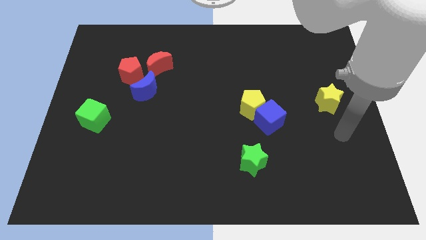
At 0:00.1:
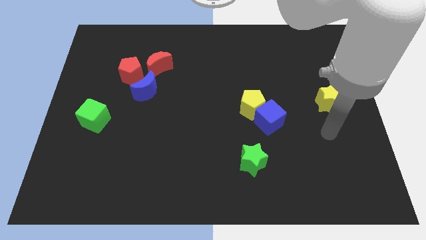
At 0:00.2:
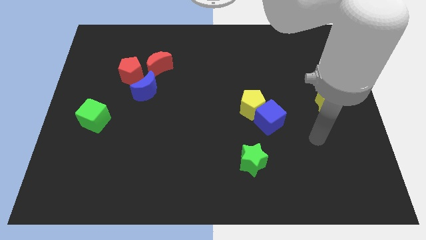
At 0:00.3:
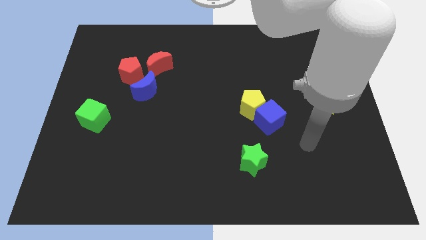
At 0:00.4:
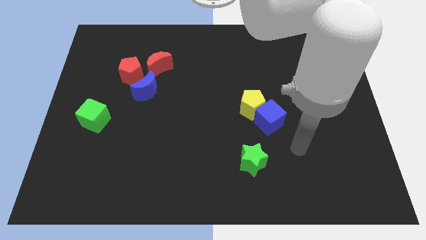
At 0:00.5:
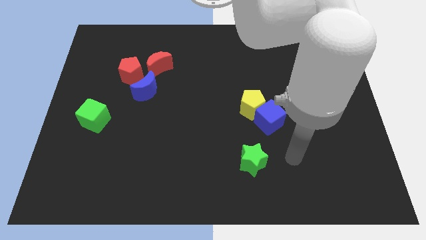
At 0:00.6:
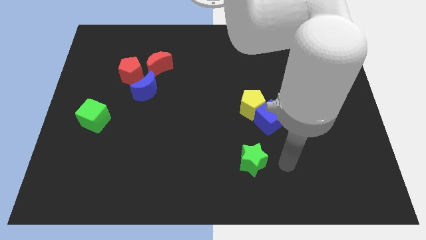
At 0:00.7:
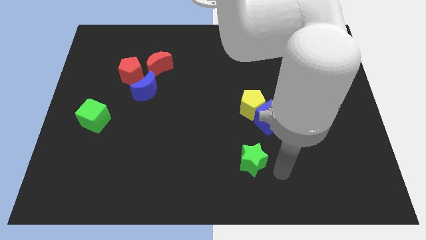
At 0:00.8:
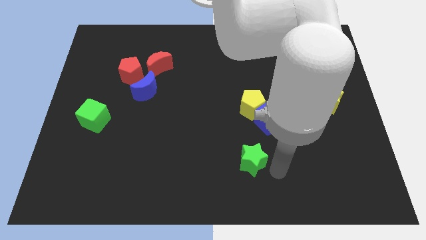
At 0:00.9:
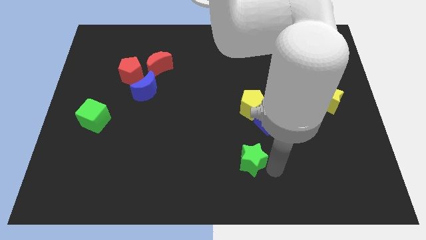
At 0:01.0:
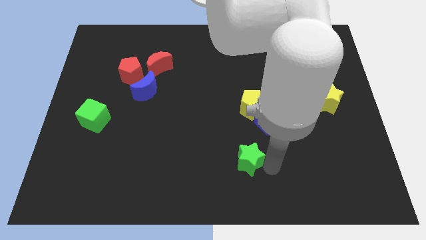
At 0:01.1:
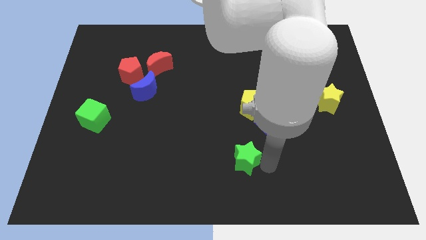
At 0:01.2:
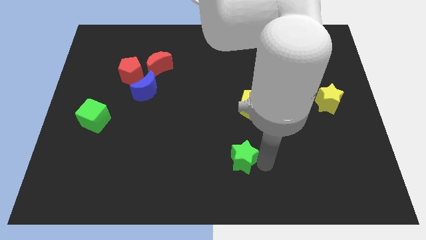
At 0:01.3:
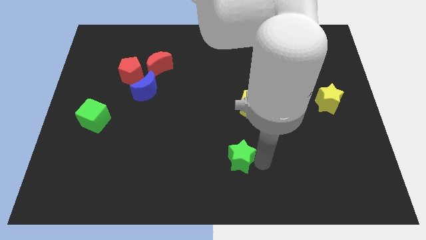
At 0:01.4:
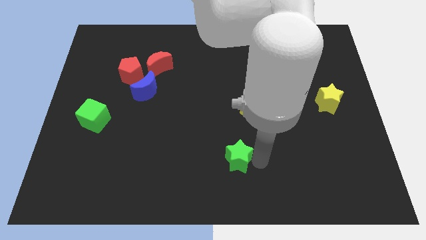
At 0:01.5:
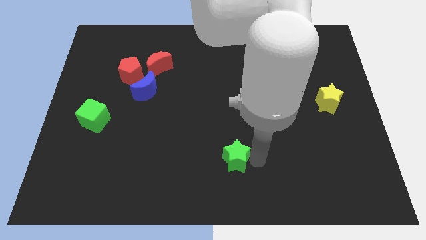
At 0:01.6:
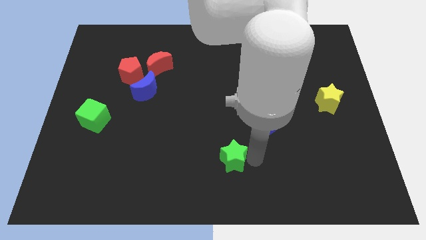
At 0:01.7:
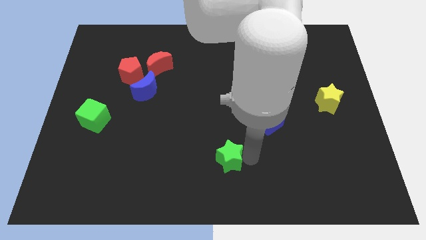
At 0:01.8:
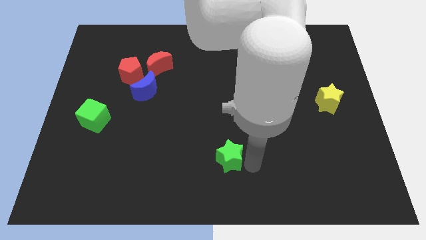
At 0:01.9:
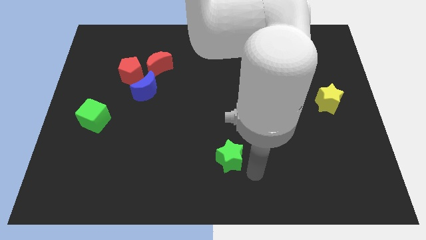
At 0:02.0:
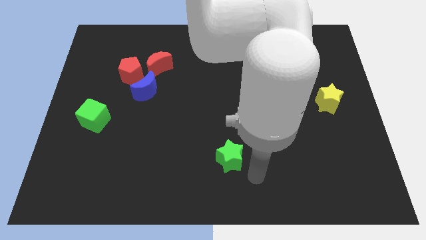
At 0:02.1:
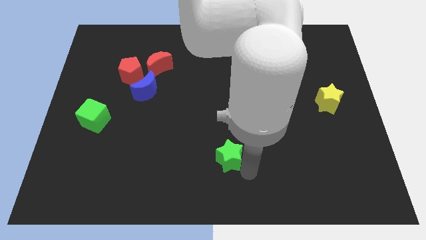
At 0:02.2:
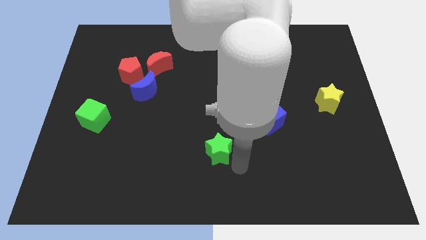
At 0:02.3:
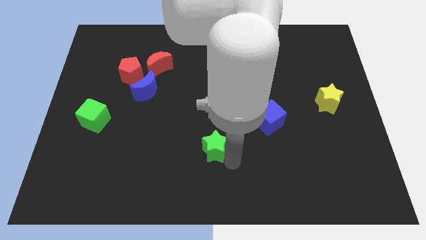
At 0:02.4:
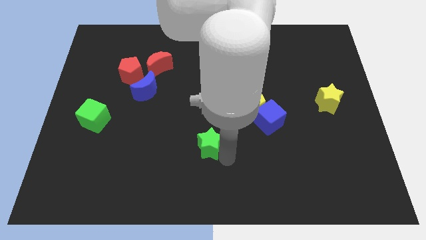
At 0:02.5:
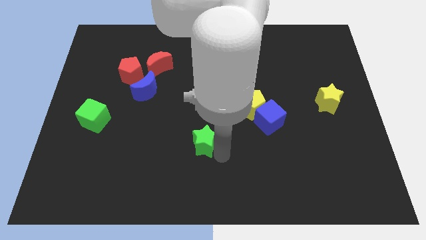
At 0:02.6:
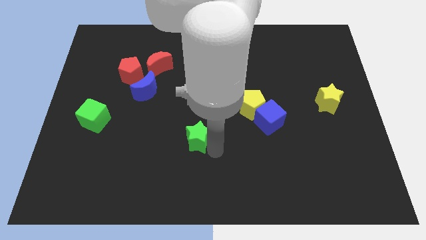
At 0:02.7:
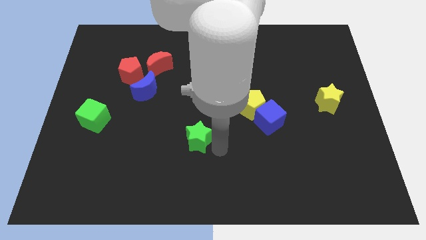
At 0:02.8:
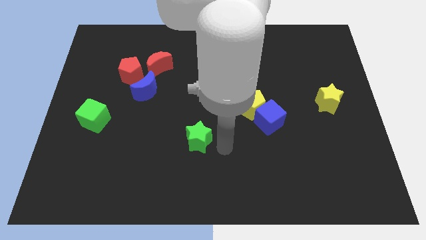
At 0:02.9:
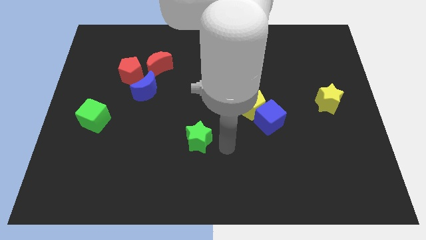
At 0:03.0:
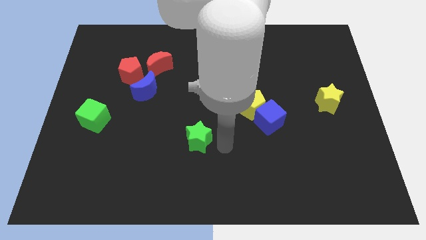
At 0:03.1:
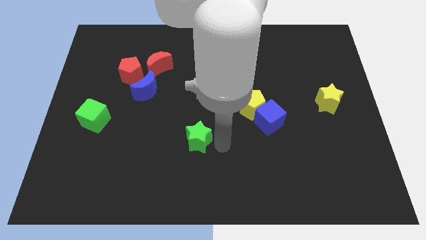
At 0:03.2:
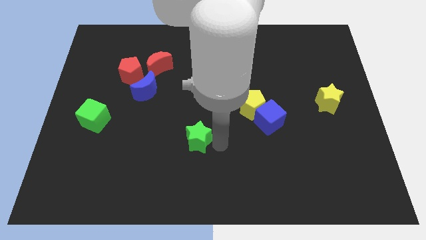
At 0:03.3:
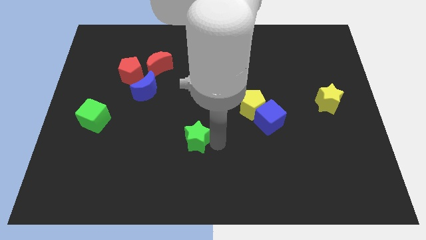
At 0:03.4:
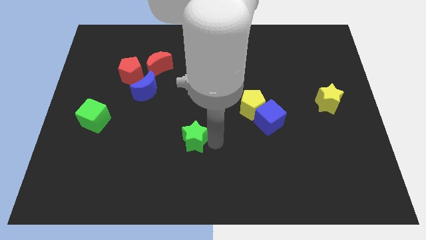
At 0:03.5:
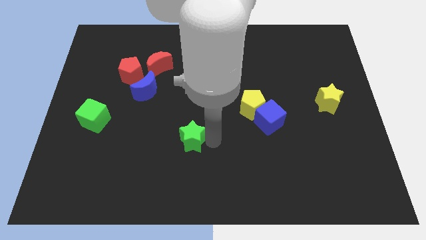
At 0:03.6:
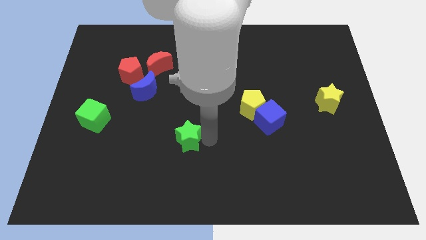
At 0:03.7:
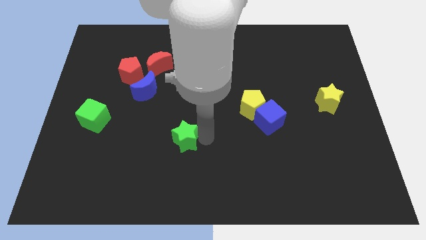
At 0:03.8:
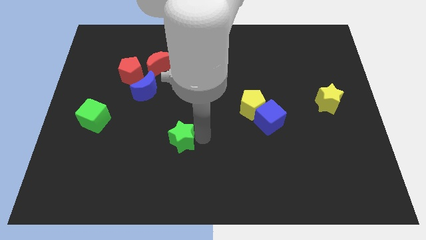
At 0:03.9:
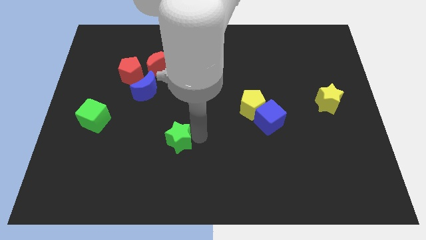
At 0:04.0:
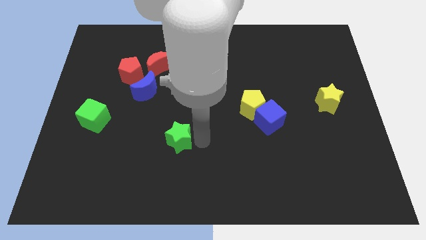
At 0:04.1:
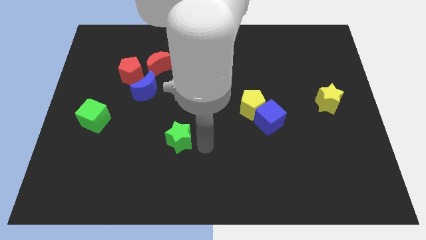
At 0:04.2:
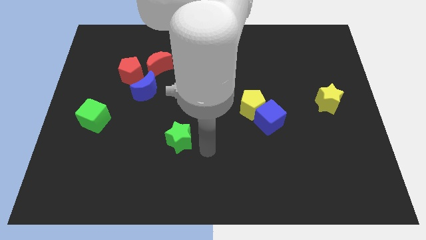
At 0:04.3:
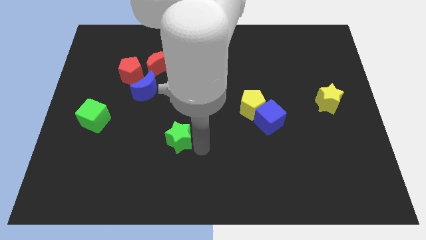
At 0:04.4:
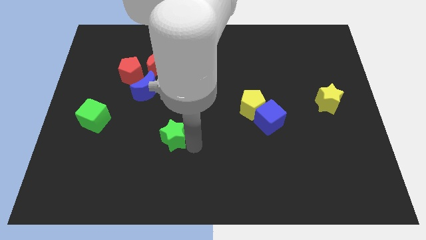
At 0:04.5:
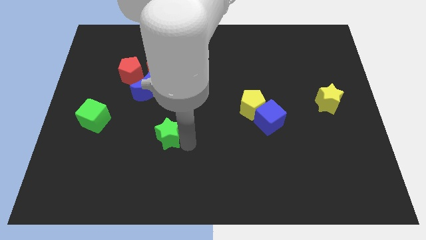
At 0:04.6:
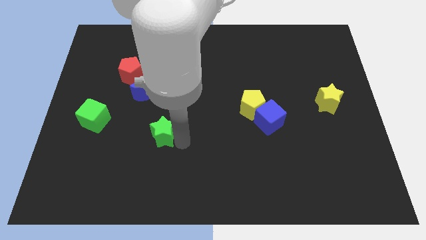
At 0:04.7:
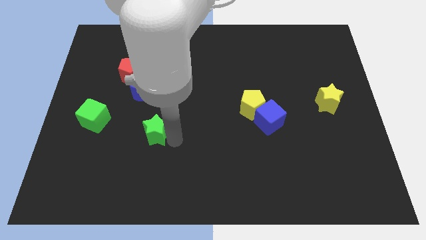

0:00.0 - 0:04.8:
push the green star below the blue moon

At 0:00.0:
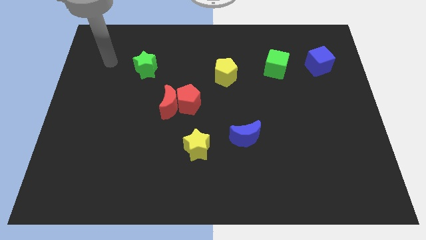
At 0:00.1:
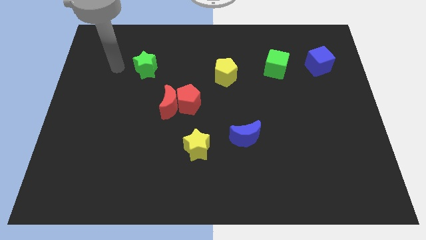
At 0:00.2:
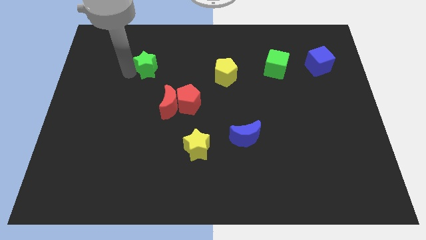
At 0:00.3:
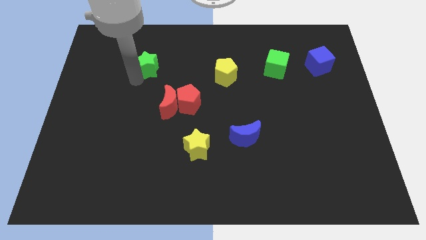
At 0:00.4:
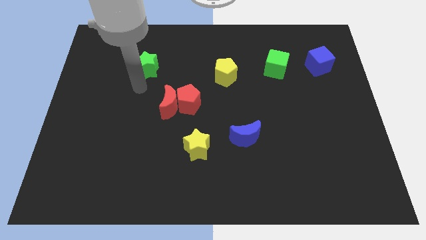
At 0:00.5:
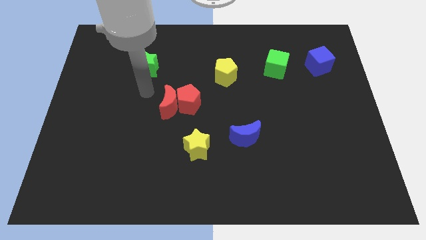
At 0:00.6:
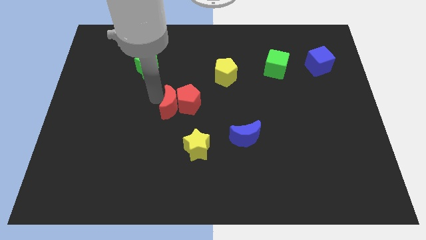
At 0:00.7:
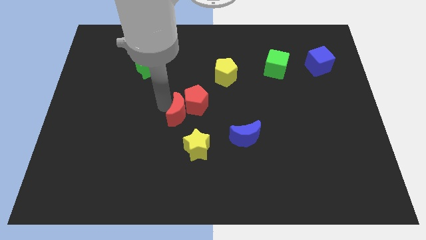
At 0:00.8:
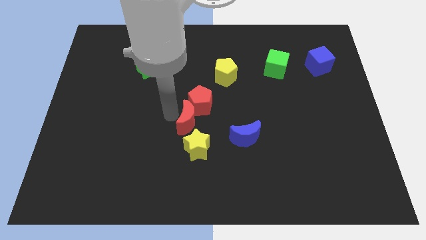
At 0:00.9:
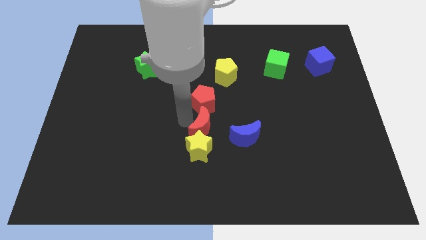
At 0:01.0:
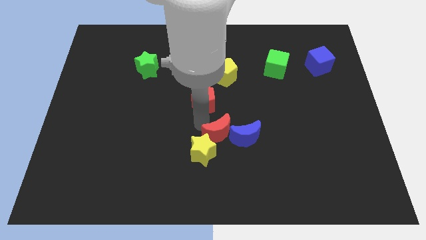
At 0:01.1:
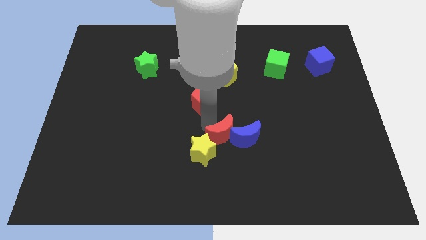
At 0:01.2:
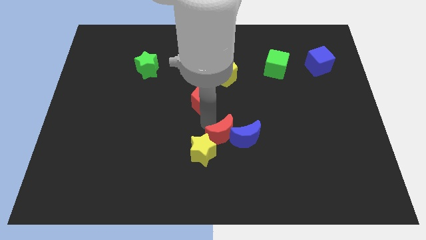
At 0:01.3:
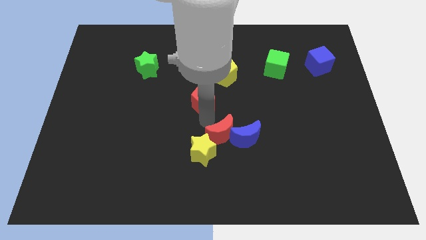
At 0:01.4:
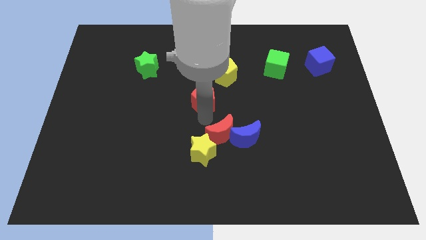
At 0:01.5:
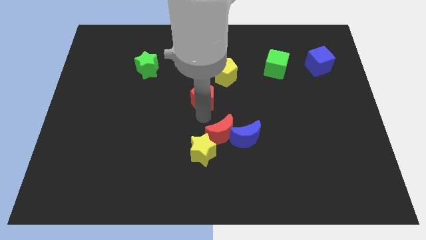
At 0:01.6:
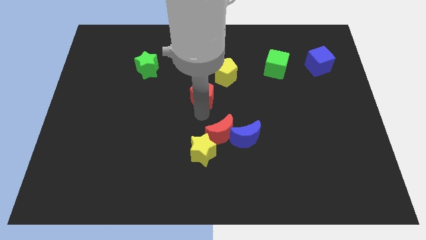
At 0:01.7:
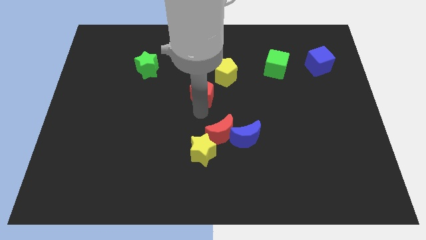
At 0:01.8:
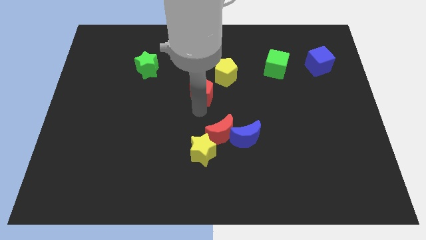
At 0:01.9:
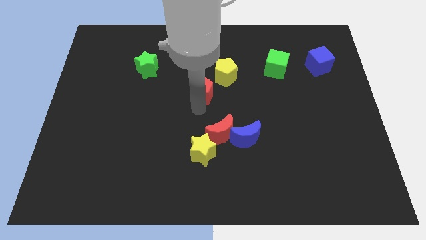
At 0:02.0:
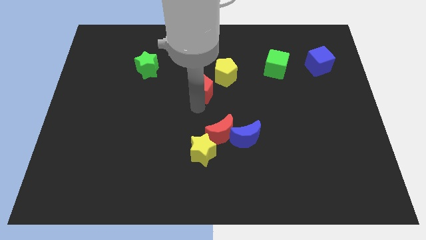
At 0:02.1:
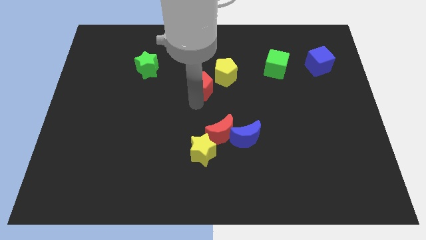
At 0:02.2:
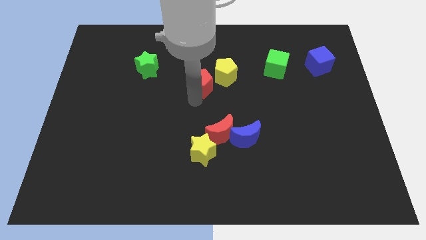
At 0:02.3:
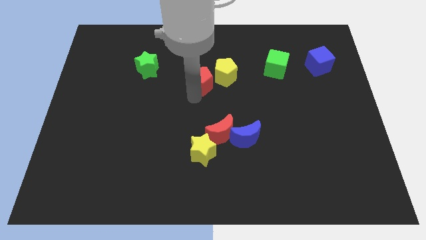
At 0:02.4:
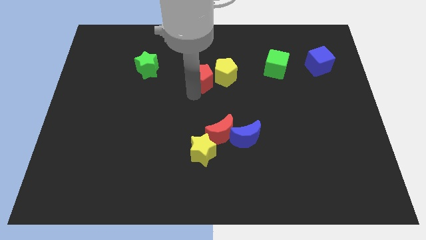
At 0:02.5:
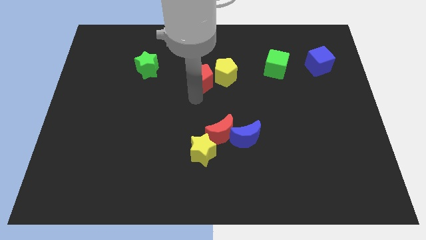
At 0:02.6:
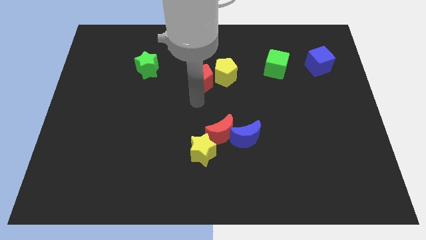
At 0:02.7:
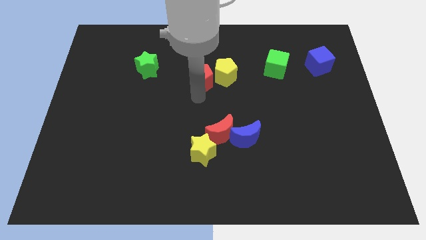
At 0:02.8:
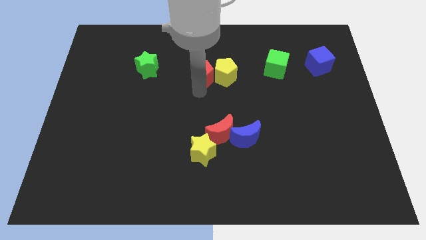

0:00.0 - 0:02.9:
slide the red pentagon diagonally up and to the left of the yellow pentagon
